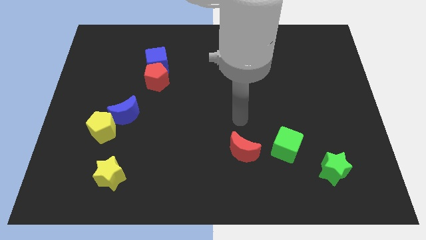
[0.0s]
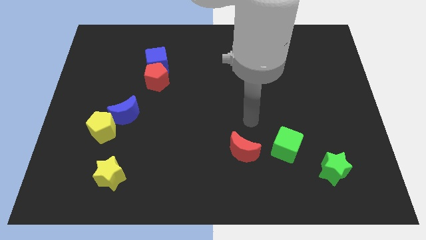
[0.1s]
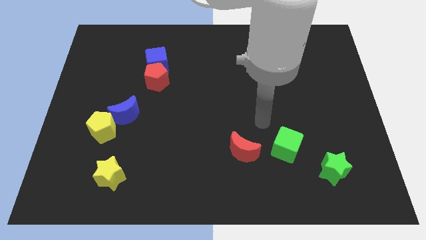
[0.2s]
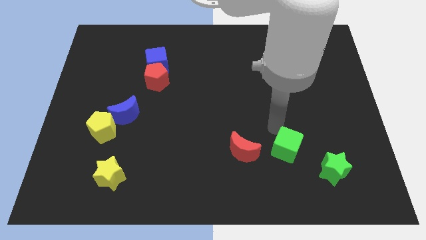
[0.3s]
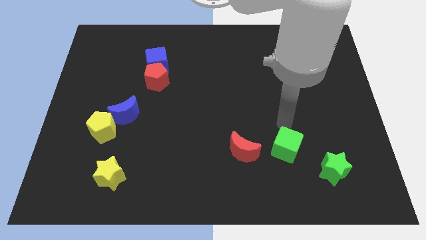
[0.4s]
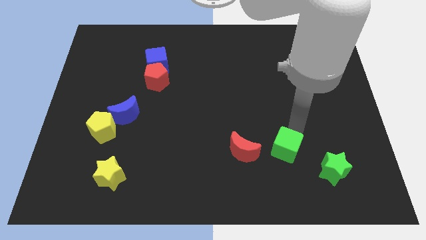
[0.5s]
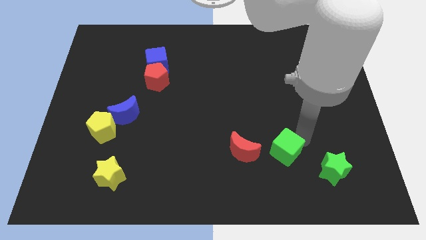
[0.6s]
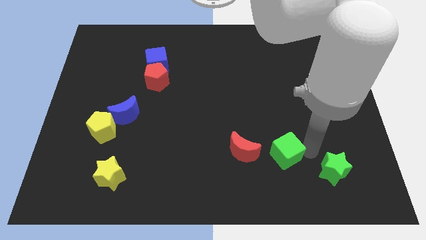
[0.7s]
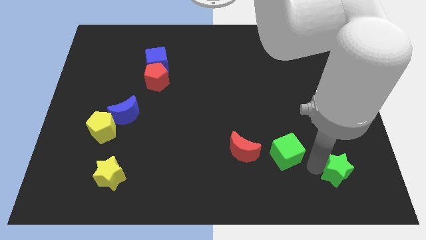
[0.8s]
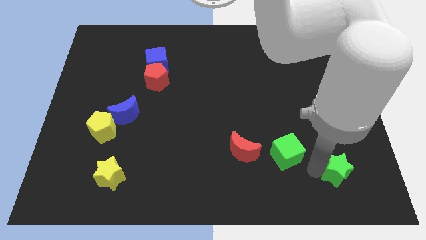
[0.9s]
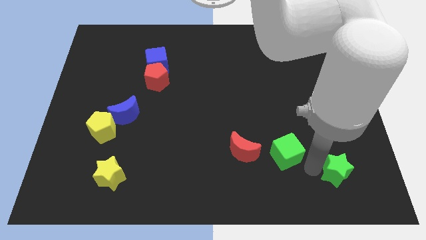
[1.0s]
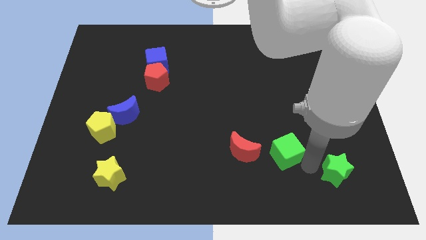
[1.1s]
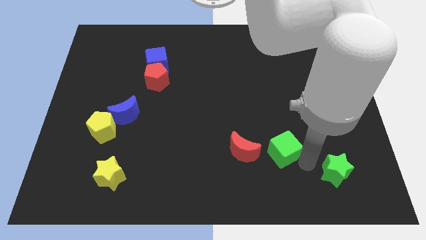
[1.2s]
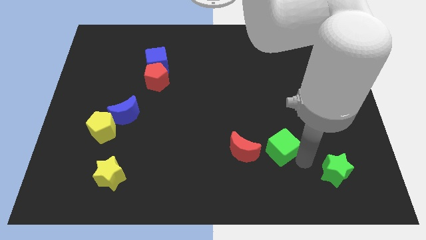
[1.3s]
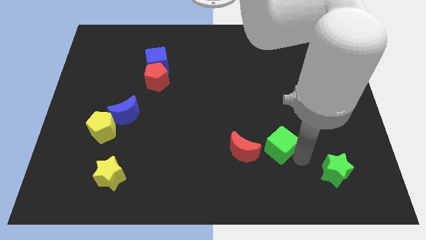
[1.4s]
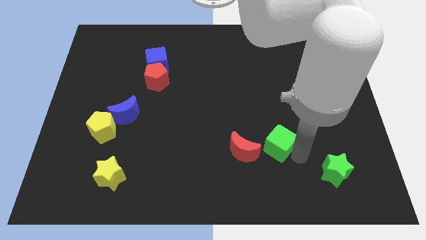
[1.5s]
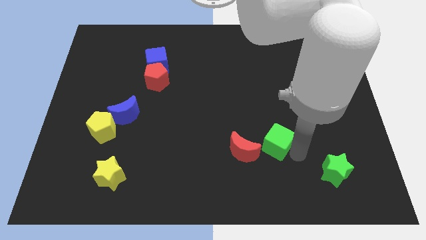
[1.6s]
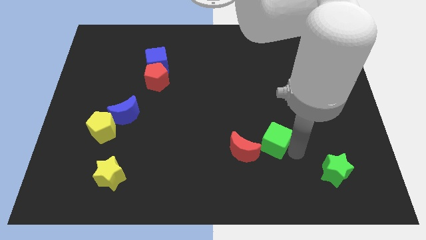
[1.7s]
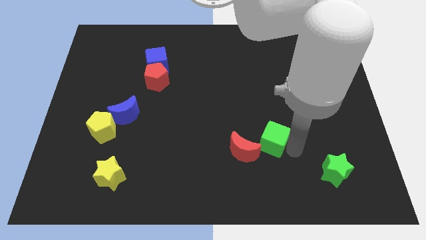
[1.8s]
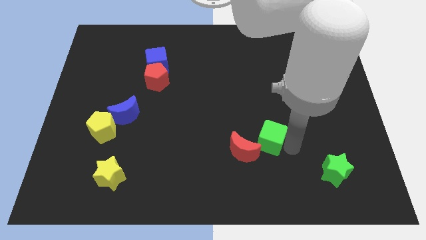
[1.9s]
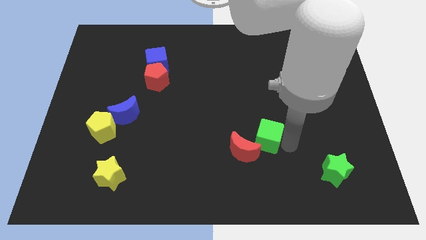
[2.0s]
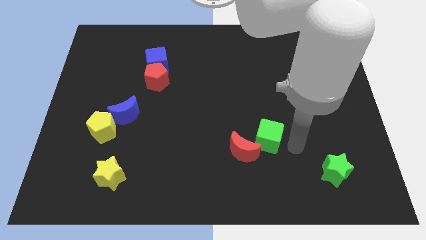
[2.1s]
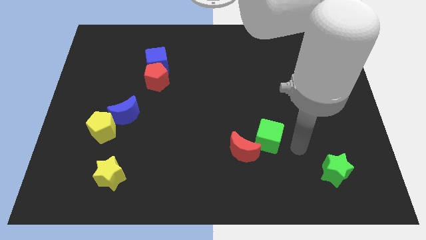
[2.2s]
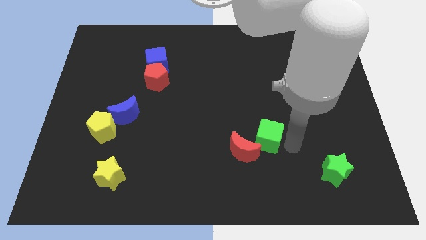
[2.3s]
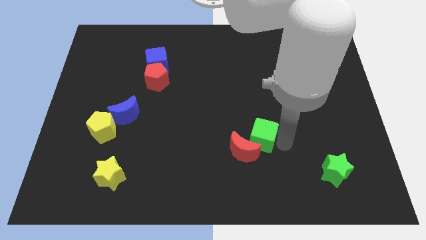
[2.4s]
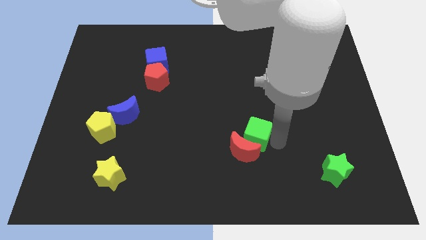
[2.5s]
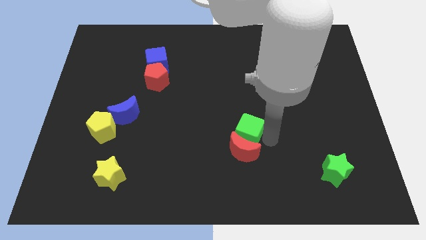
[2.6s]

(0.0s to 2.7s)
move the green cube a little bit to the left

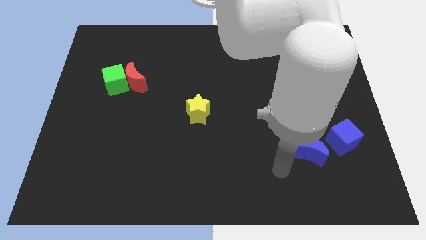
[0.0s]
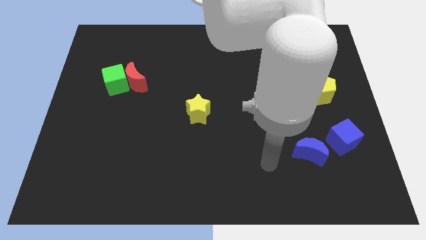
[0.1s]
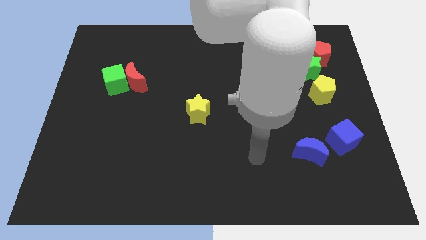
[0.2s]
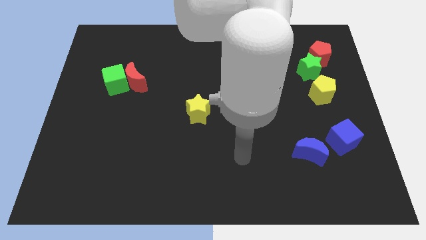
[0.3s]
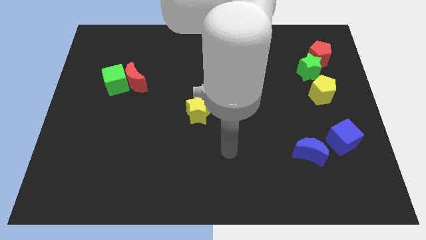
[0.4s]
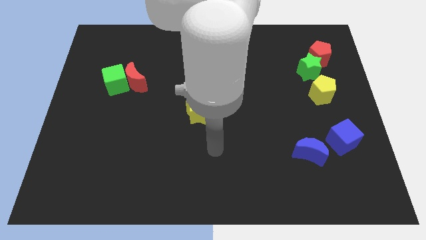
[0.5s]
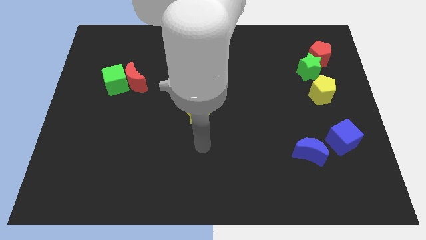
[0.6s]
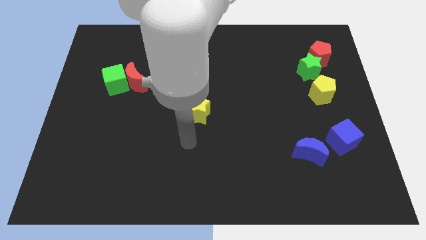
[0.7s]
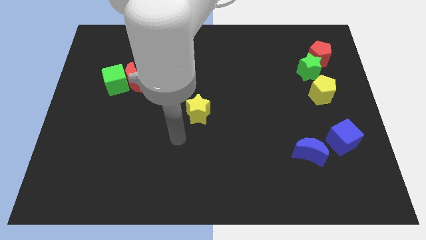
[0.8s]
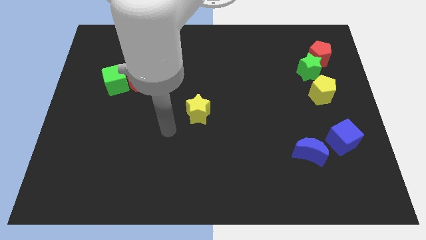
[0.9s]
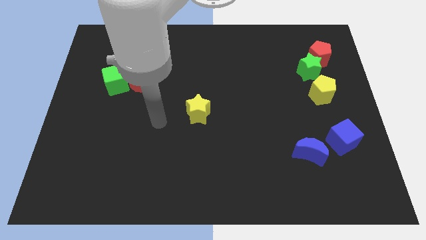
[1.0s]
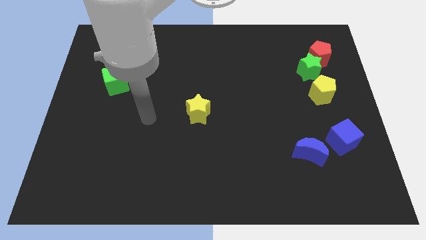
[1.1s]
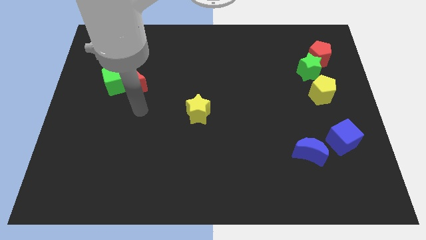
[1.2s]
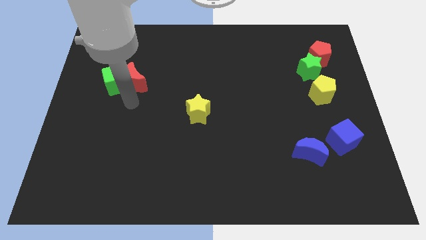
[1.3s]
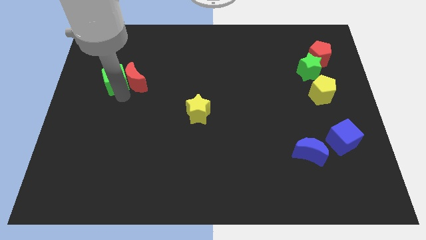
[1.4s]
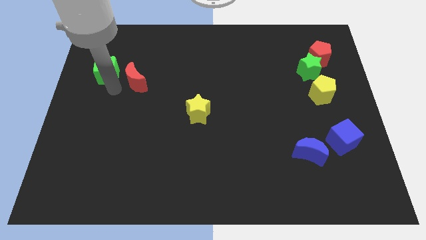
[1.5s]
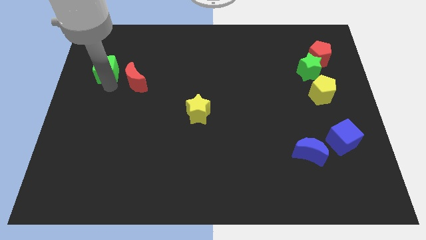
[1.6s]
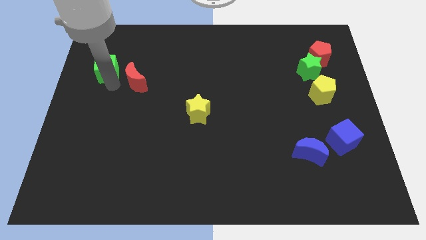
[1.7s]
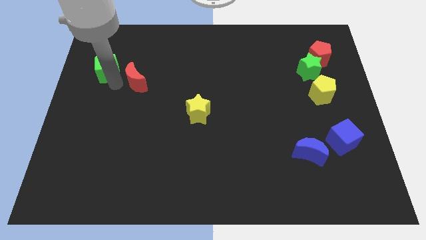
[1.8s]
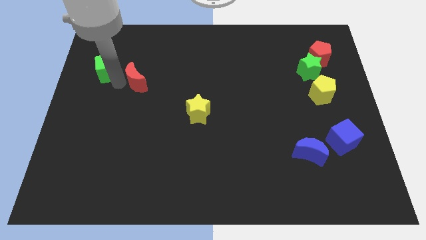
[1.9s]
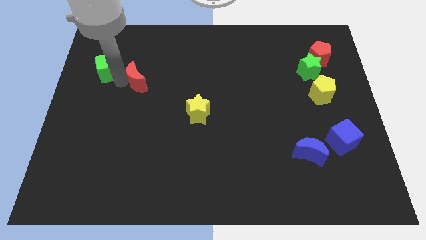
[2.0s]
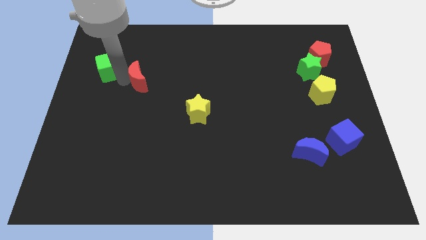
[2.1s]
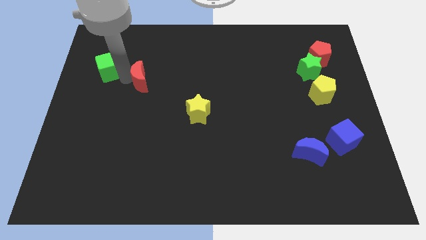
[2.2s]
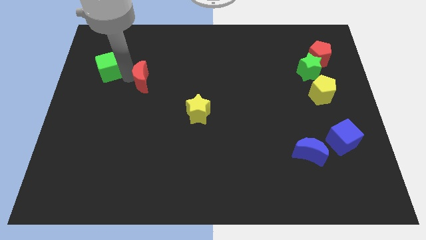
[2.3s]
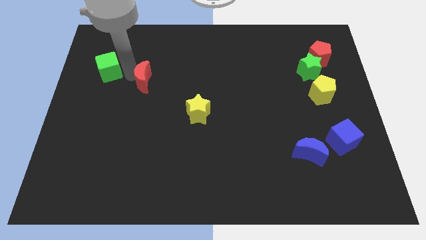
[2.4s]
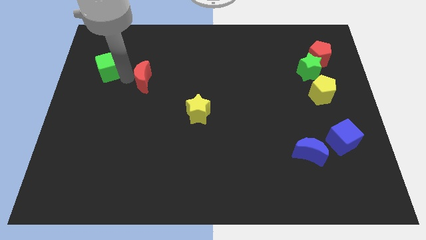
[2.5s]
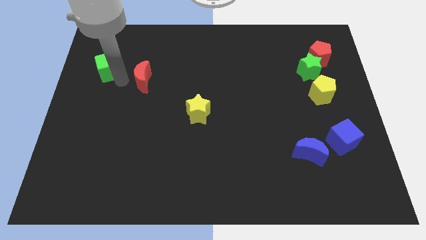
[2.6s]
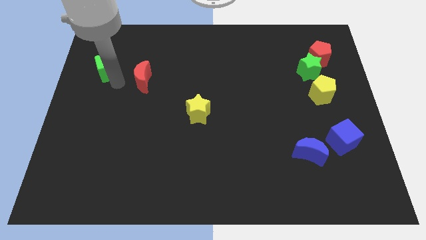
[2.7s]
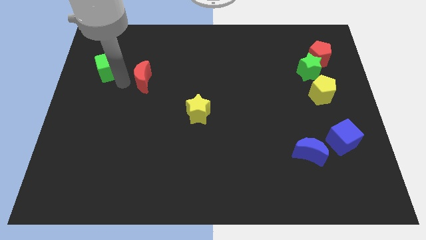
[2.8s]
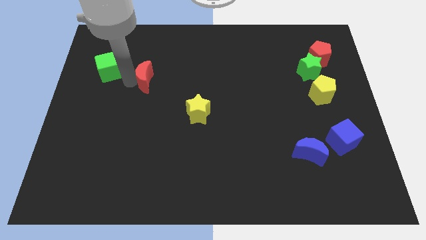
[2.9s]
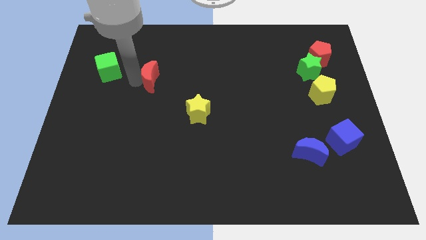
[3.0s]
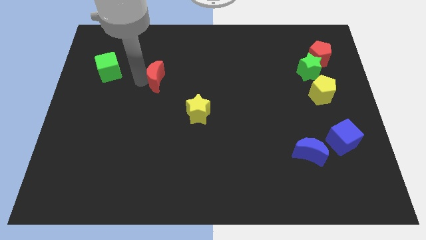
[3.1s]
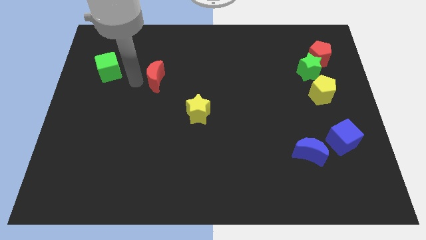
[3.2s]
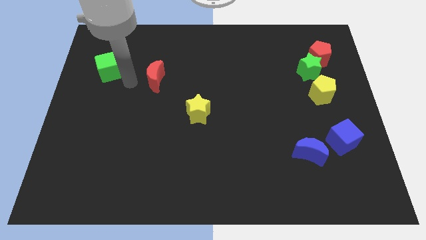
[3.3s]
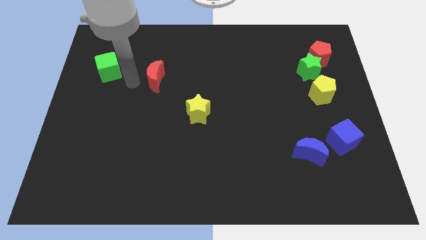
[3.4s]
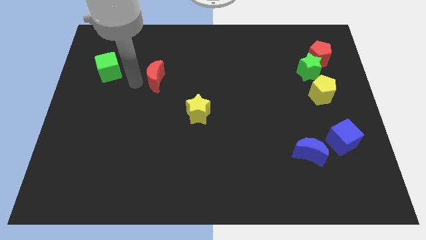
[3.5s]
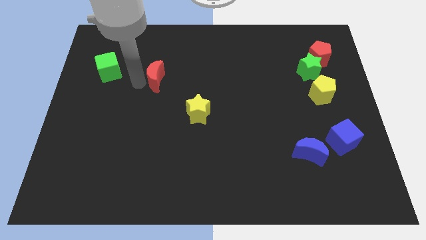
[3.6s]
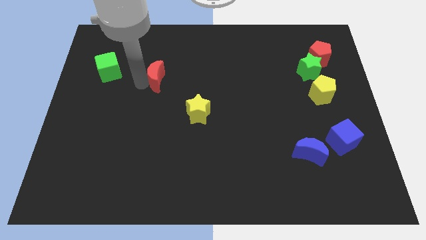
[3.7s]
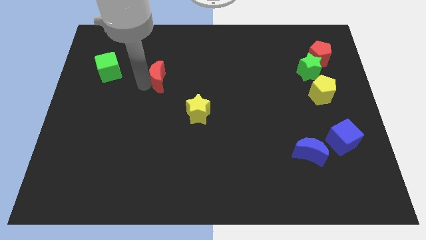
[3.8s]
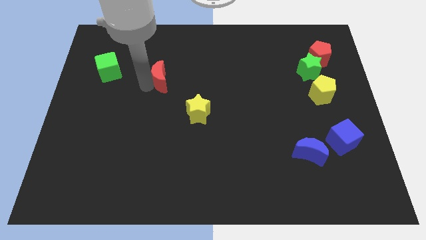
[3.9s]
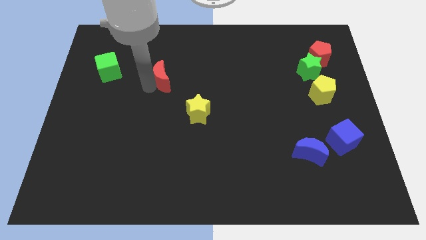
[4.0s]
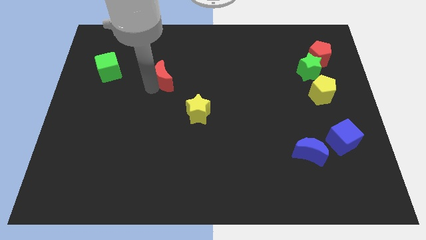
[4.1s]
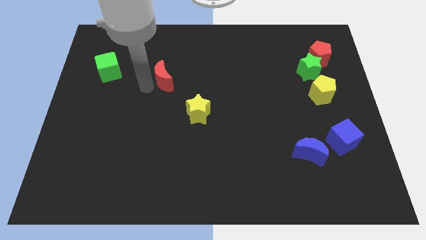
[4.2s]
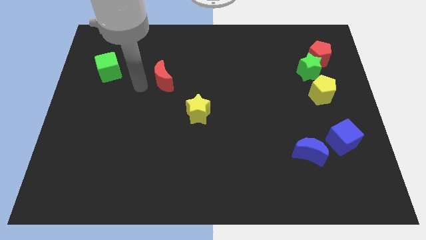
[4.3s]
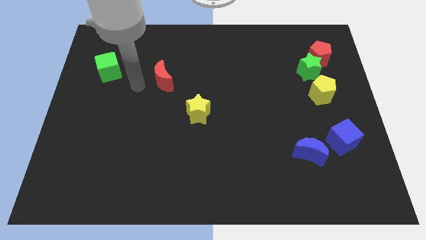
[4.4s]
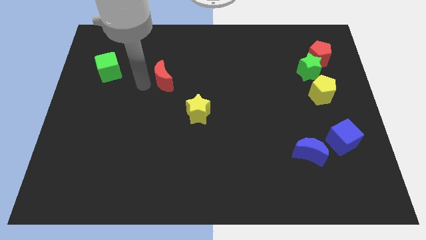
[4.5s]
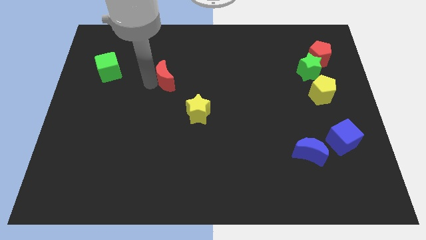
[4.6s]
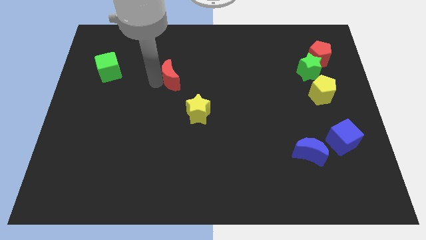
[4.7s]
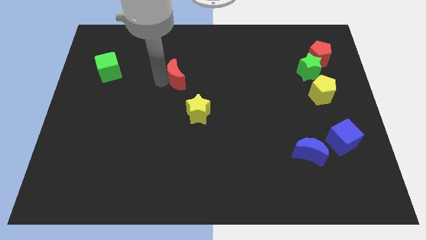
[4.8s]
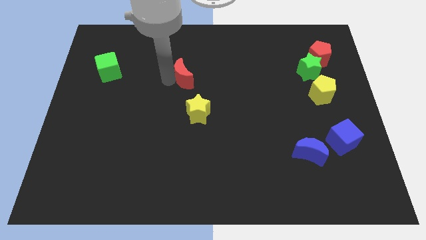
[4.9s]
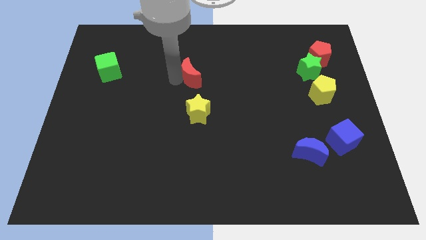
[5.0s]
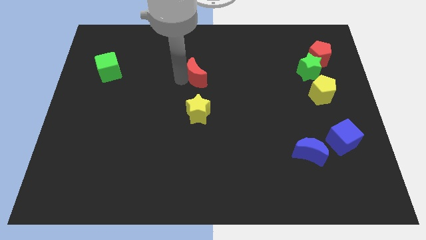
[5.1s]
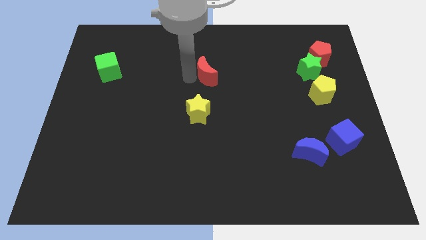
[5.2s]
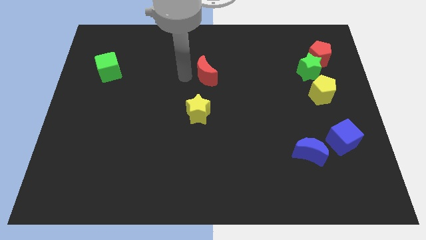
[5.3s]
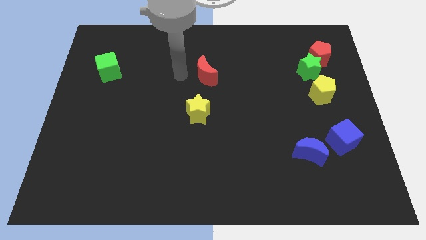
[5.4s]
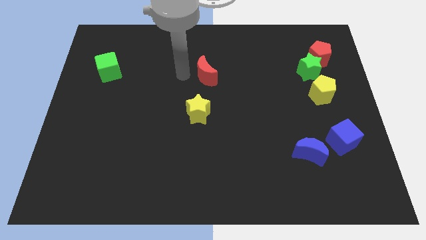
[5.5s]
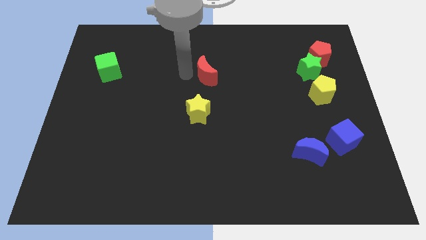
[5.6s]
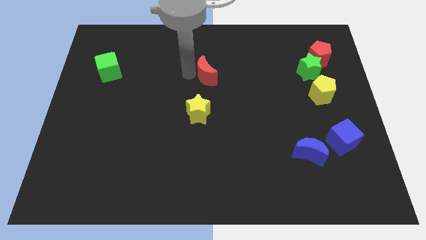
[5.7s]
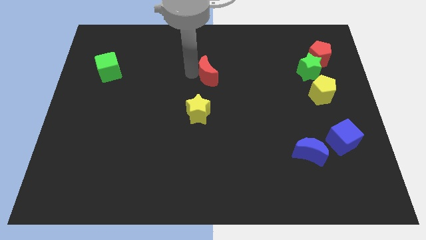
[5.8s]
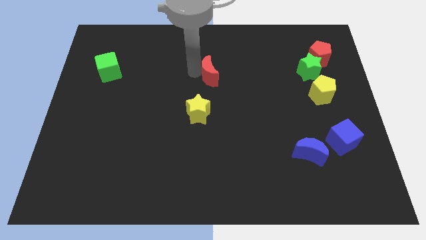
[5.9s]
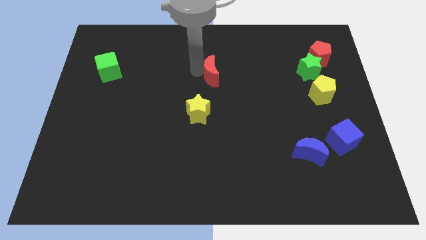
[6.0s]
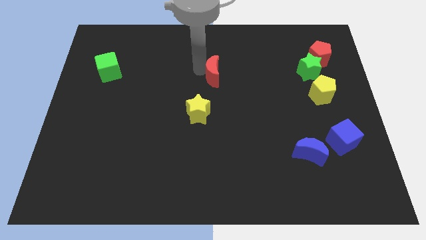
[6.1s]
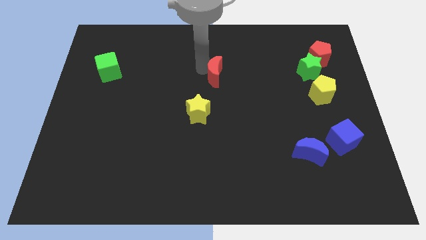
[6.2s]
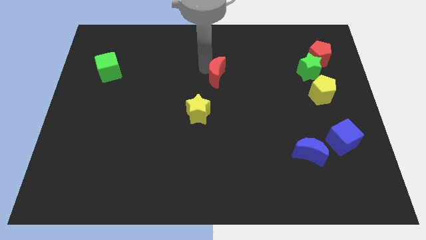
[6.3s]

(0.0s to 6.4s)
move the red moon to the right
